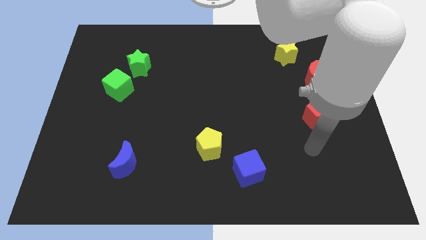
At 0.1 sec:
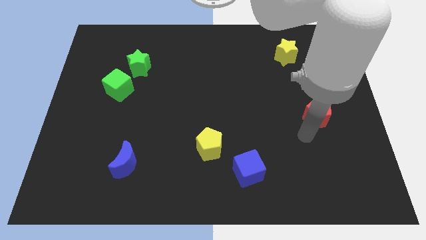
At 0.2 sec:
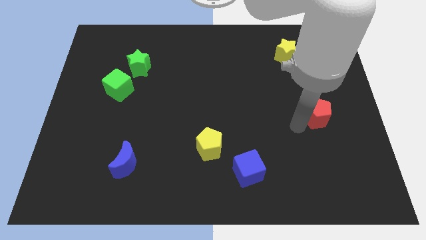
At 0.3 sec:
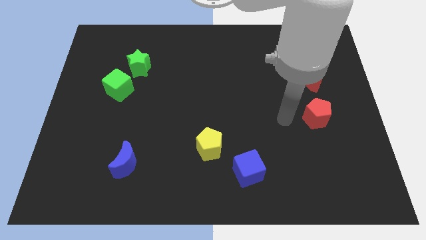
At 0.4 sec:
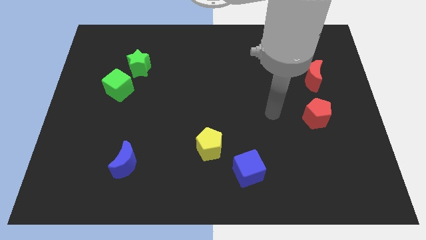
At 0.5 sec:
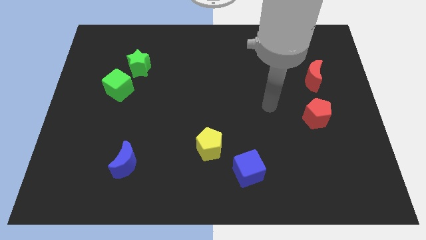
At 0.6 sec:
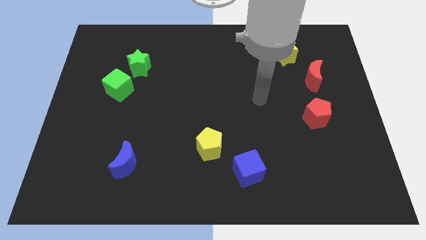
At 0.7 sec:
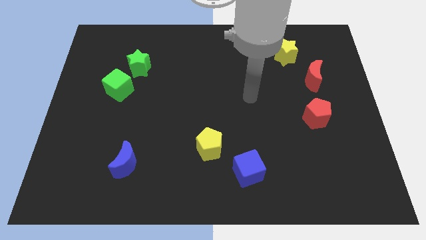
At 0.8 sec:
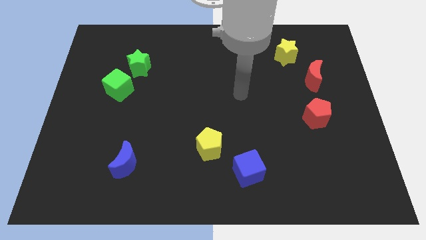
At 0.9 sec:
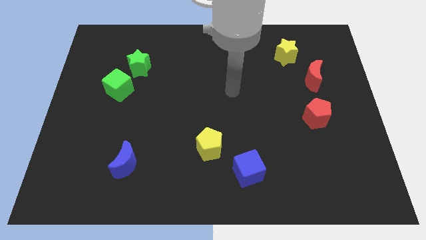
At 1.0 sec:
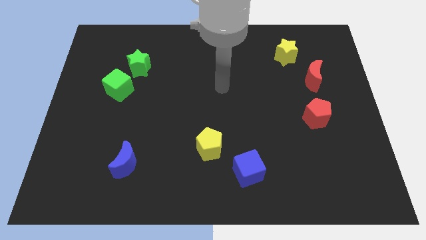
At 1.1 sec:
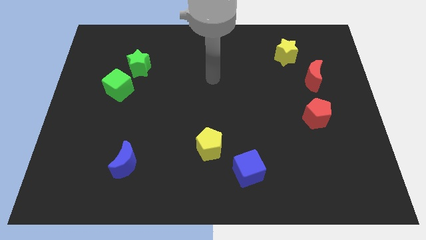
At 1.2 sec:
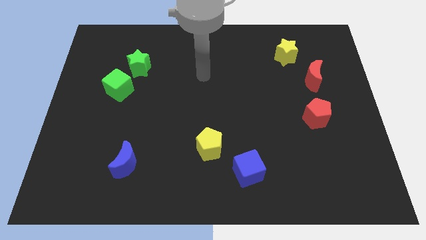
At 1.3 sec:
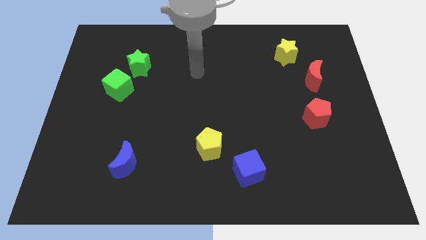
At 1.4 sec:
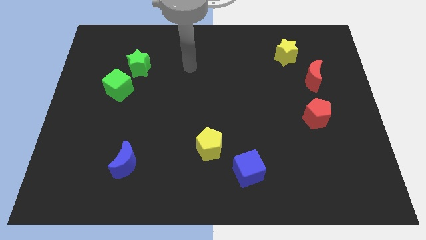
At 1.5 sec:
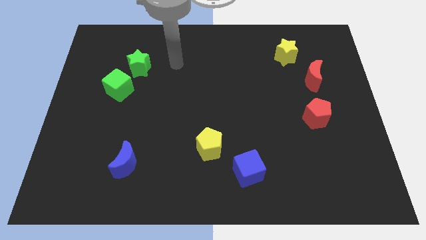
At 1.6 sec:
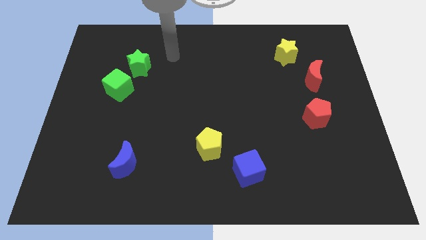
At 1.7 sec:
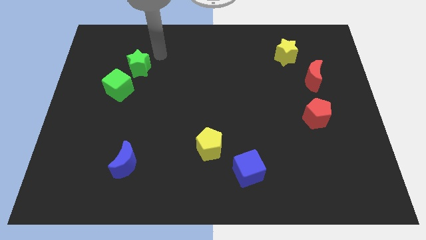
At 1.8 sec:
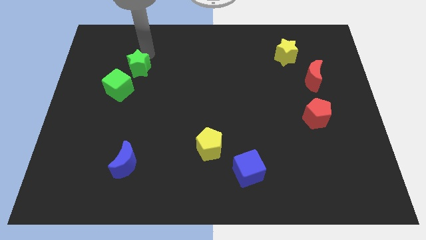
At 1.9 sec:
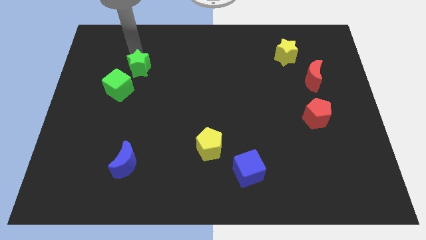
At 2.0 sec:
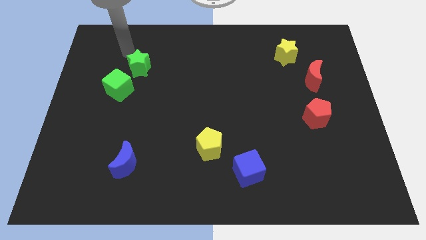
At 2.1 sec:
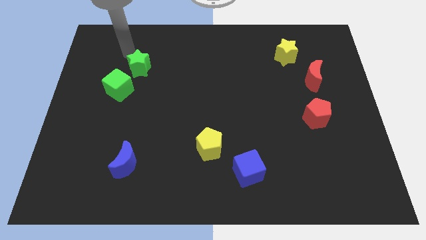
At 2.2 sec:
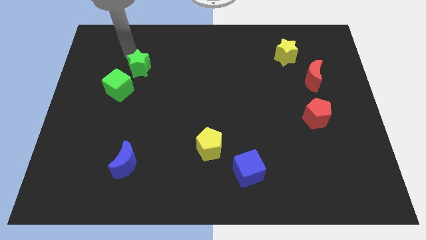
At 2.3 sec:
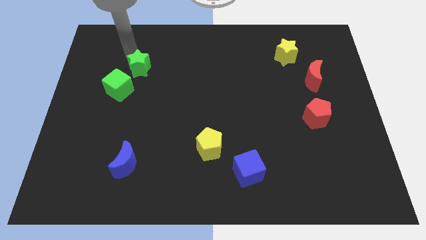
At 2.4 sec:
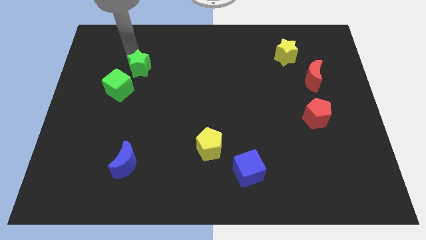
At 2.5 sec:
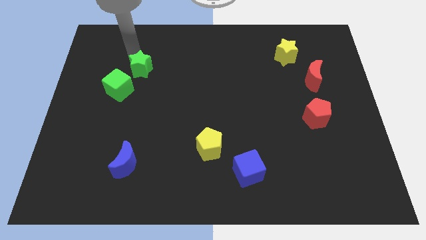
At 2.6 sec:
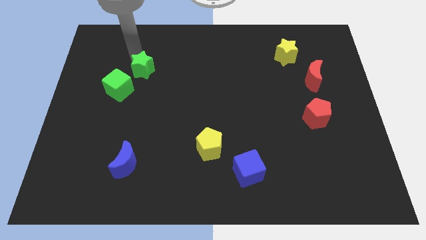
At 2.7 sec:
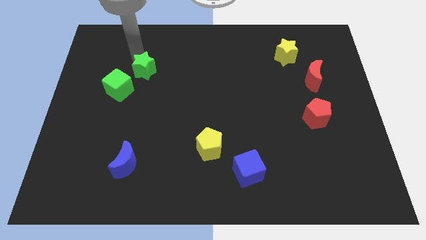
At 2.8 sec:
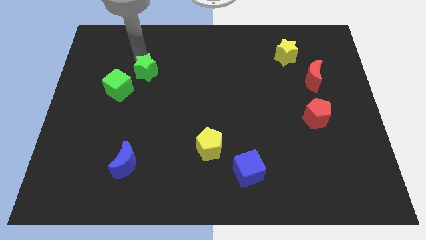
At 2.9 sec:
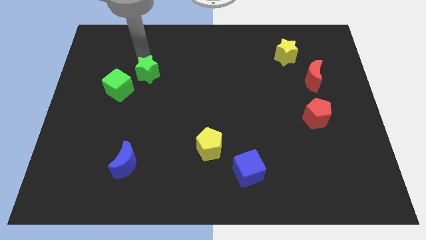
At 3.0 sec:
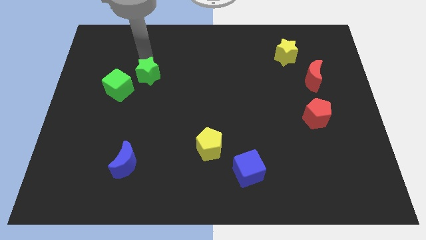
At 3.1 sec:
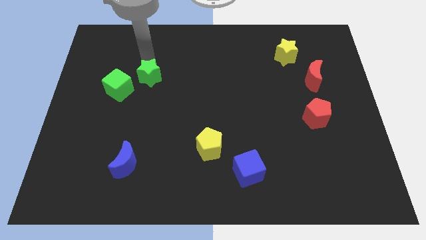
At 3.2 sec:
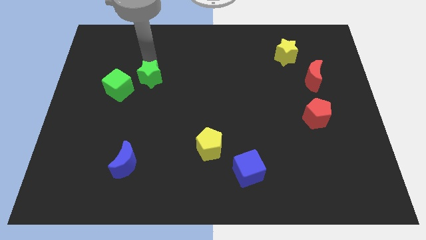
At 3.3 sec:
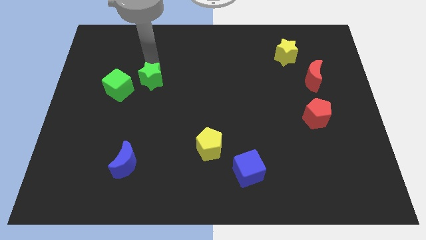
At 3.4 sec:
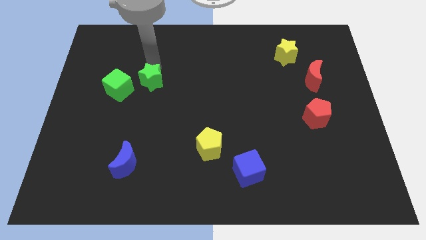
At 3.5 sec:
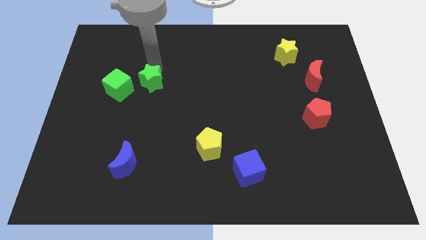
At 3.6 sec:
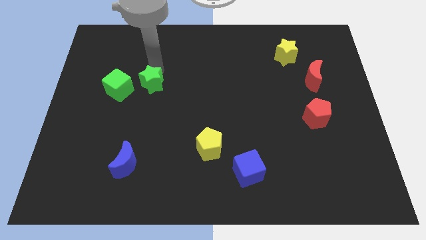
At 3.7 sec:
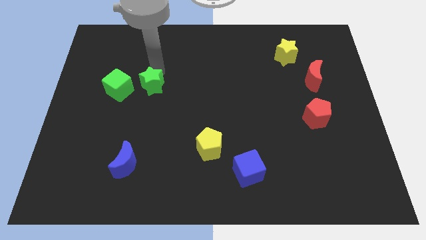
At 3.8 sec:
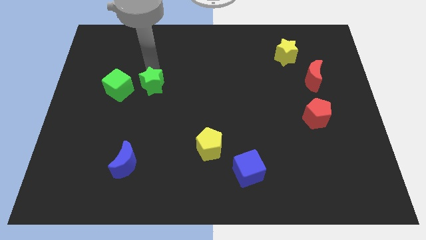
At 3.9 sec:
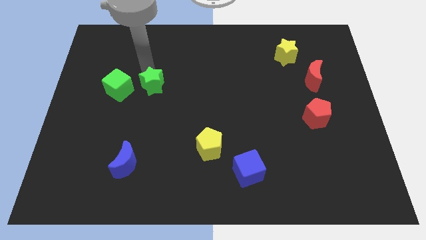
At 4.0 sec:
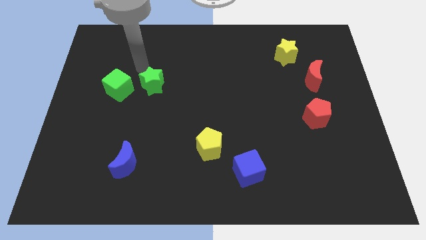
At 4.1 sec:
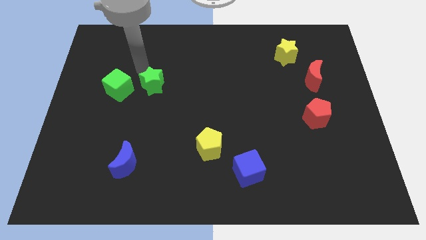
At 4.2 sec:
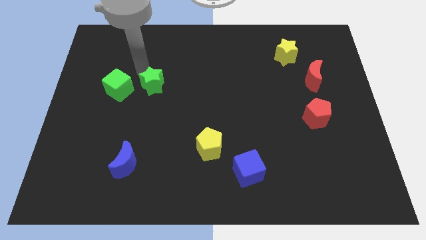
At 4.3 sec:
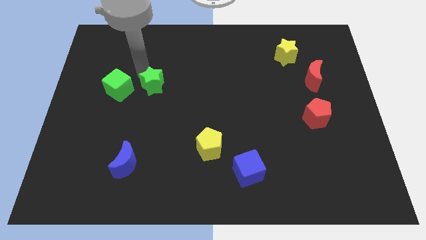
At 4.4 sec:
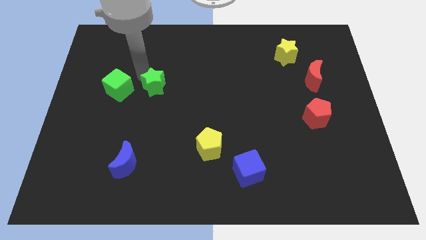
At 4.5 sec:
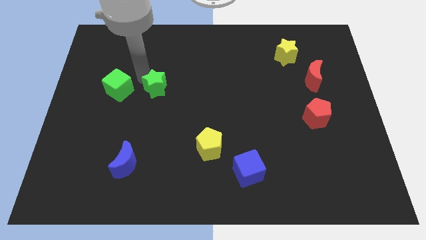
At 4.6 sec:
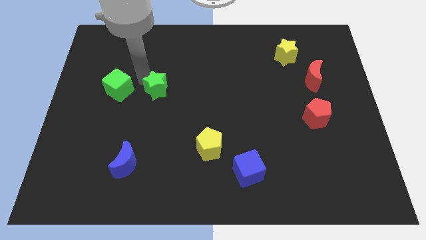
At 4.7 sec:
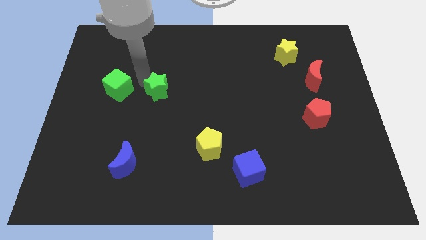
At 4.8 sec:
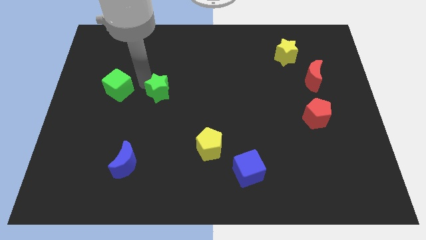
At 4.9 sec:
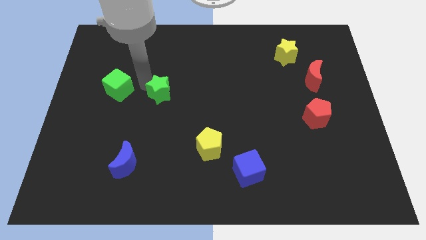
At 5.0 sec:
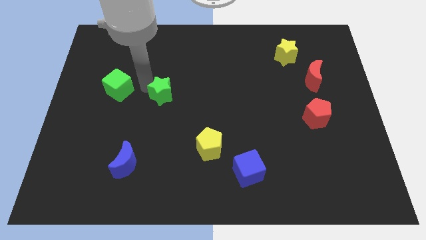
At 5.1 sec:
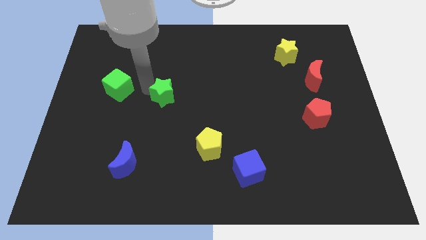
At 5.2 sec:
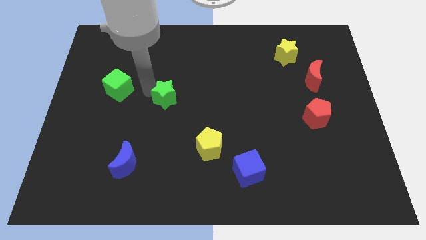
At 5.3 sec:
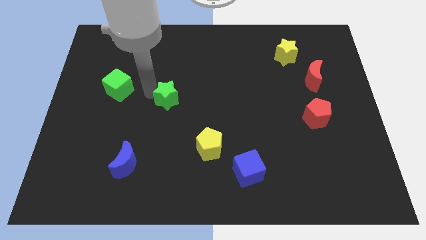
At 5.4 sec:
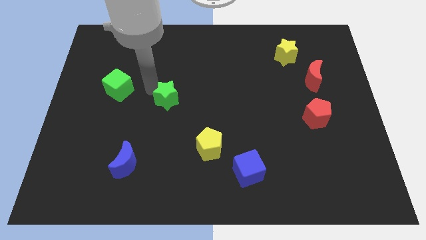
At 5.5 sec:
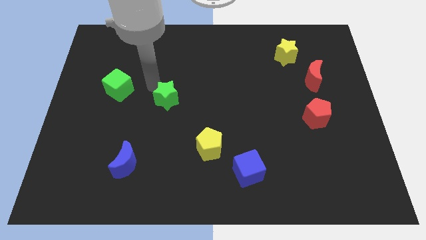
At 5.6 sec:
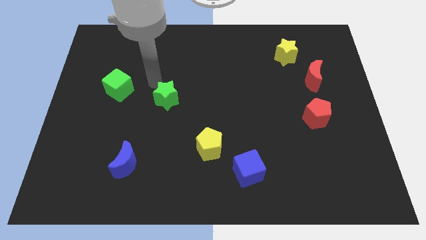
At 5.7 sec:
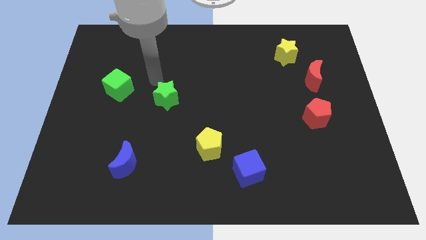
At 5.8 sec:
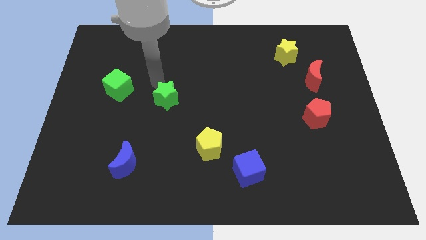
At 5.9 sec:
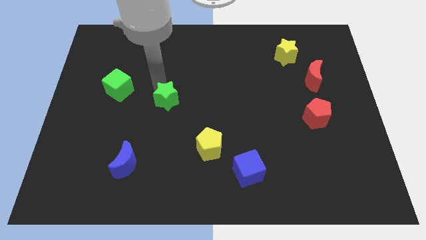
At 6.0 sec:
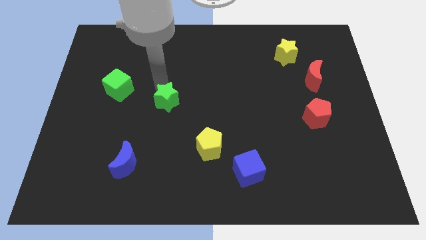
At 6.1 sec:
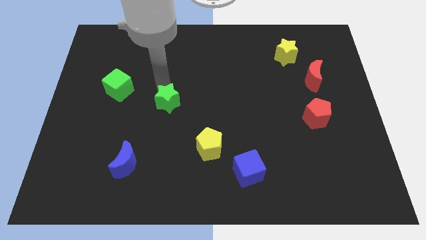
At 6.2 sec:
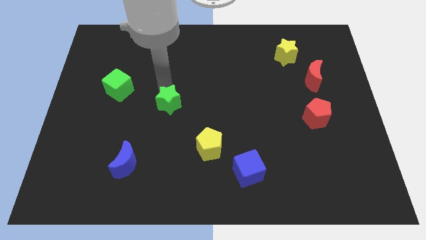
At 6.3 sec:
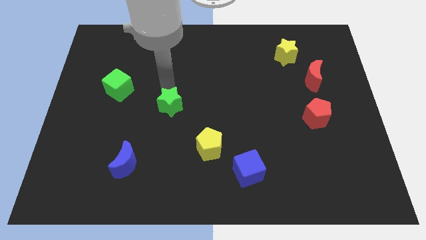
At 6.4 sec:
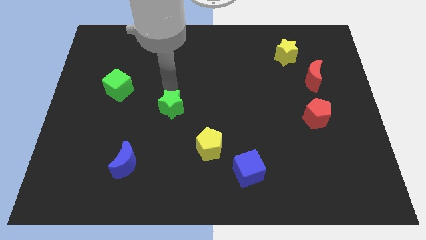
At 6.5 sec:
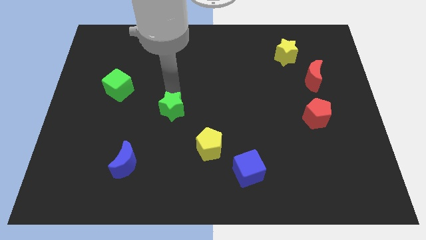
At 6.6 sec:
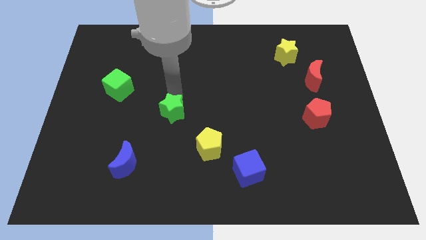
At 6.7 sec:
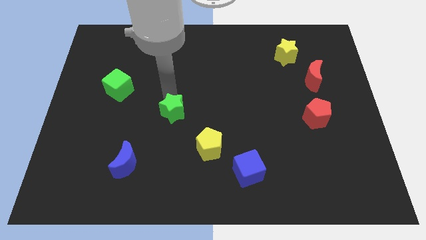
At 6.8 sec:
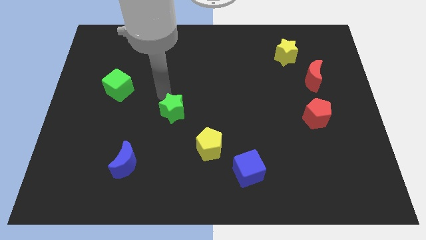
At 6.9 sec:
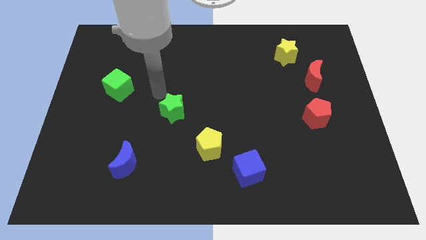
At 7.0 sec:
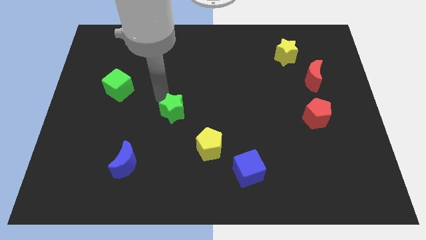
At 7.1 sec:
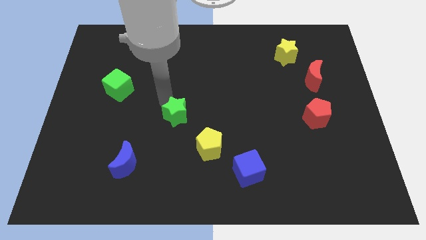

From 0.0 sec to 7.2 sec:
put the green star diagonally up and to the left of the yellow pentagon

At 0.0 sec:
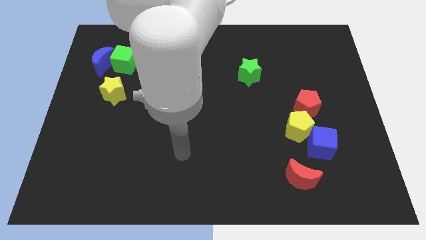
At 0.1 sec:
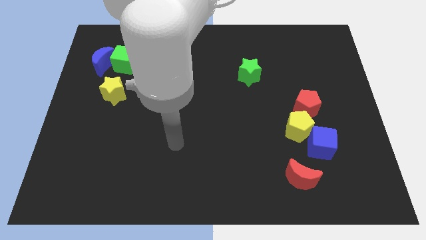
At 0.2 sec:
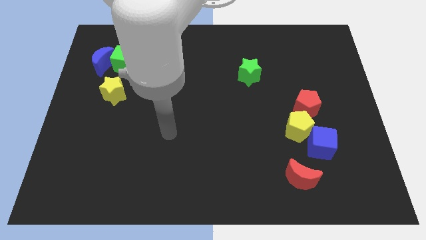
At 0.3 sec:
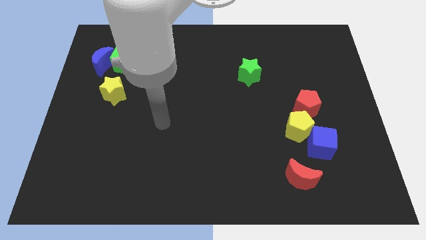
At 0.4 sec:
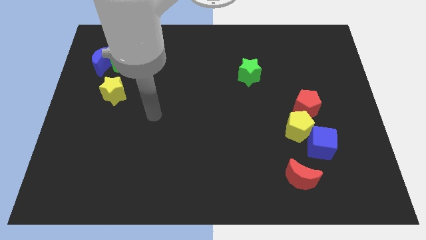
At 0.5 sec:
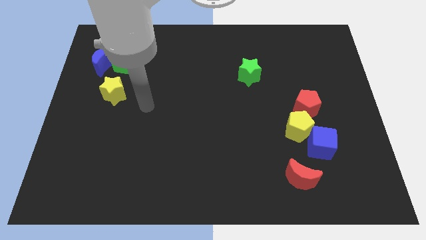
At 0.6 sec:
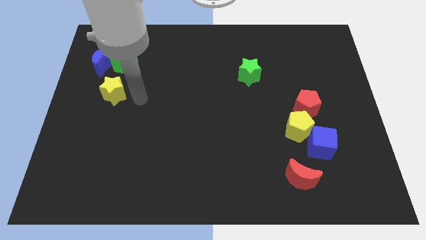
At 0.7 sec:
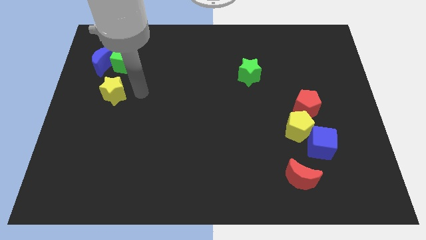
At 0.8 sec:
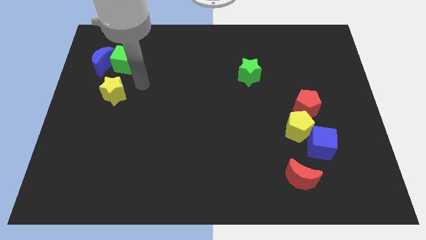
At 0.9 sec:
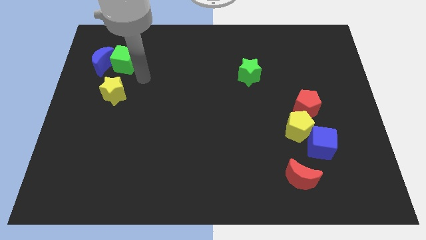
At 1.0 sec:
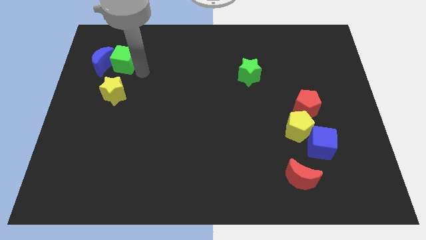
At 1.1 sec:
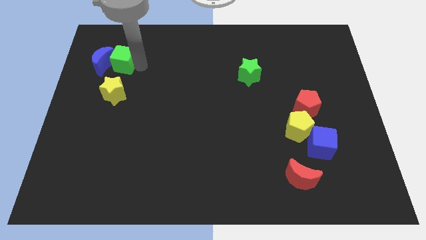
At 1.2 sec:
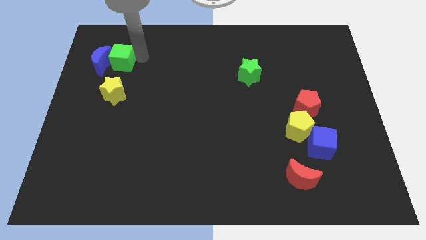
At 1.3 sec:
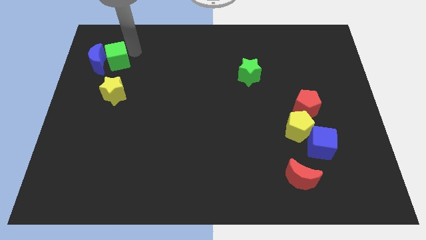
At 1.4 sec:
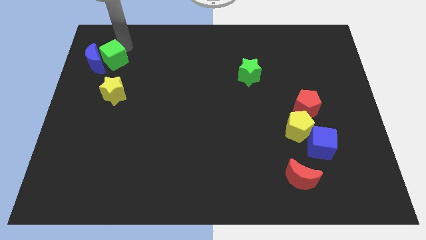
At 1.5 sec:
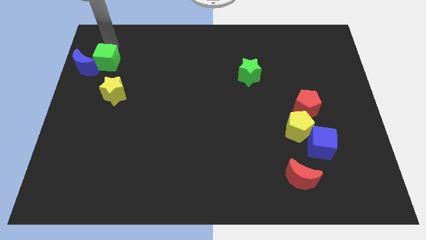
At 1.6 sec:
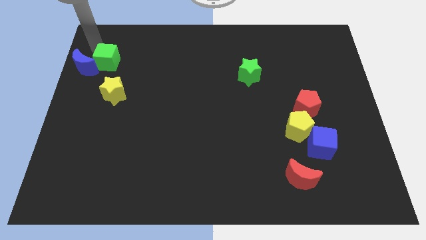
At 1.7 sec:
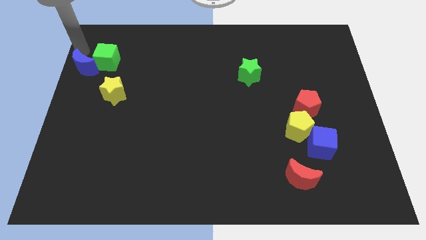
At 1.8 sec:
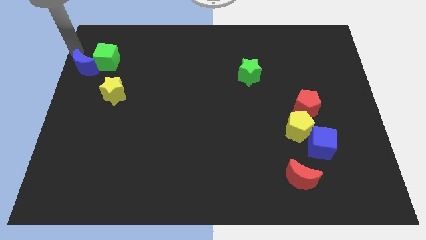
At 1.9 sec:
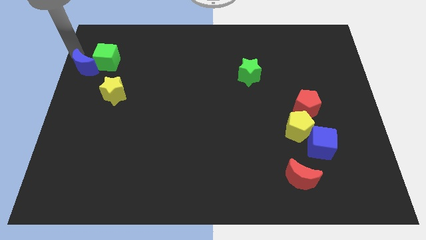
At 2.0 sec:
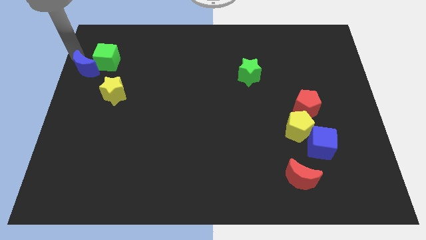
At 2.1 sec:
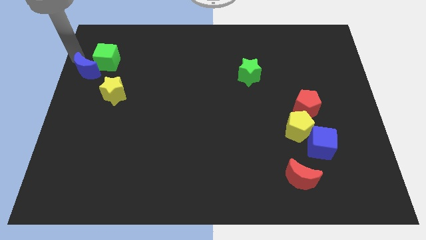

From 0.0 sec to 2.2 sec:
move the blue moon to the bottom side of the green cube
